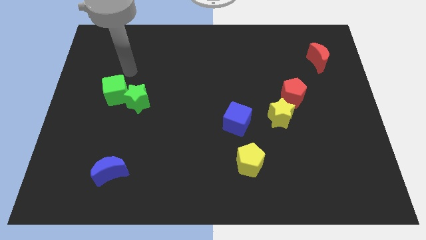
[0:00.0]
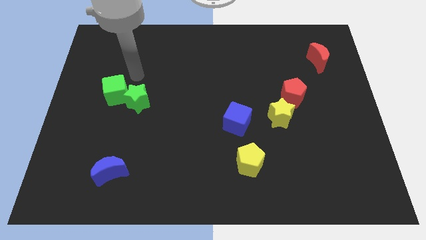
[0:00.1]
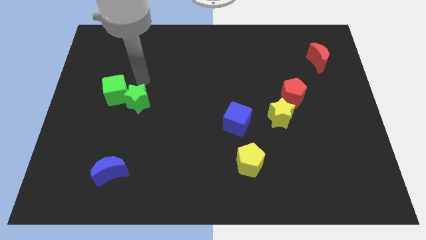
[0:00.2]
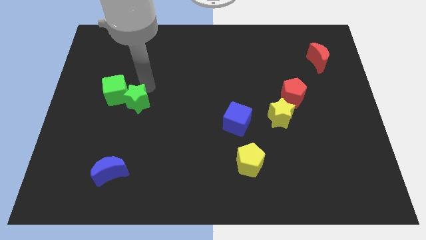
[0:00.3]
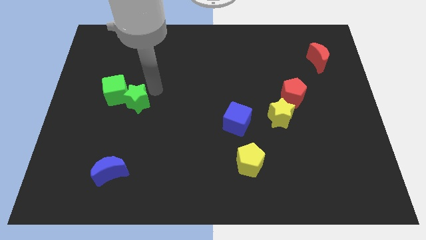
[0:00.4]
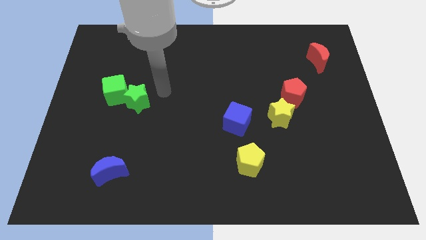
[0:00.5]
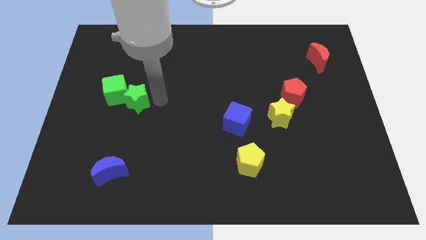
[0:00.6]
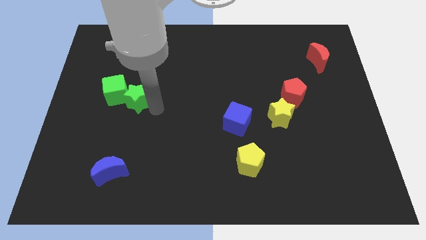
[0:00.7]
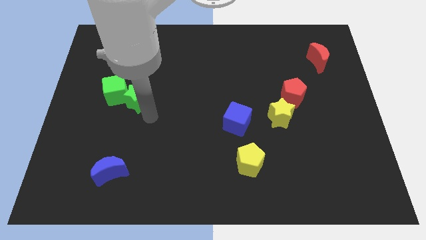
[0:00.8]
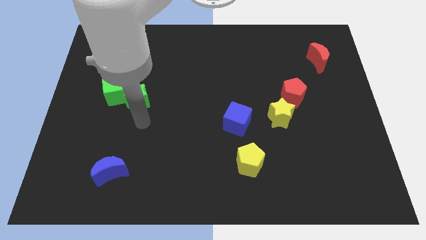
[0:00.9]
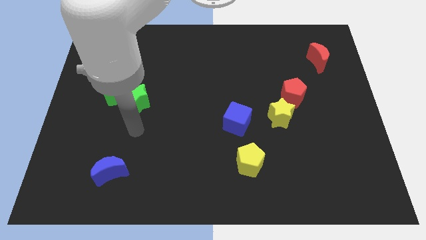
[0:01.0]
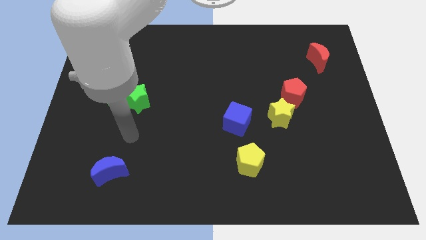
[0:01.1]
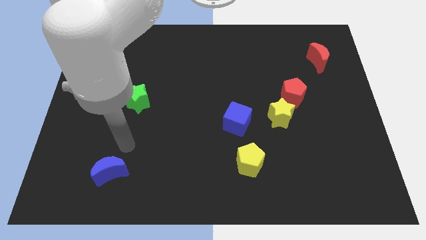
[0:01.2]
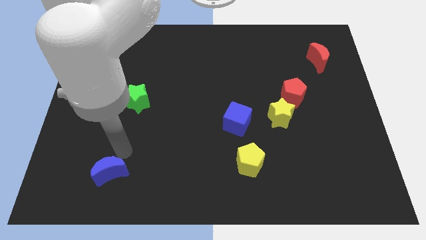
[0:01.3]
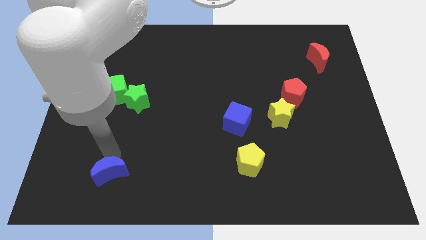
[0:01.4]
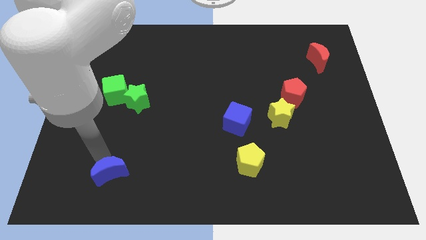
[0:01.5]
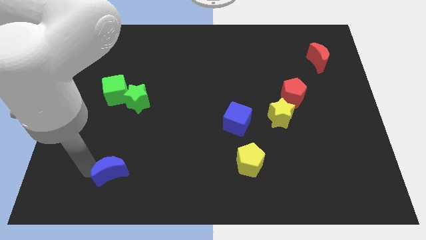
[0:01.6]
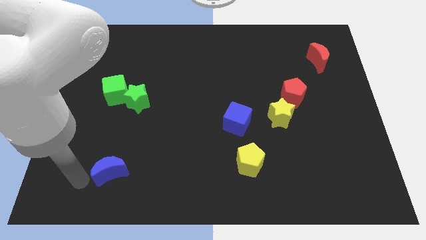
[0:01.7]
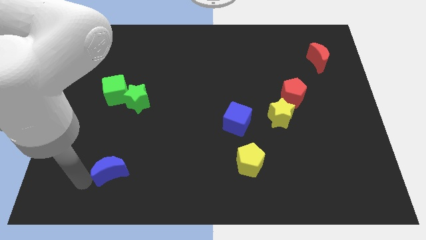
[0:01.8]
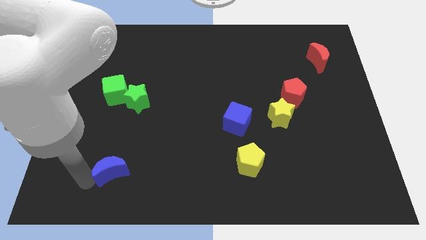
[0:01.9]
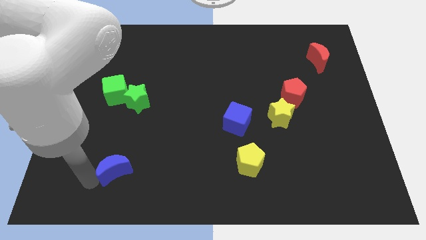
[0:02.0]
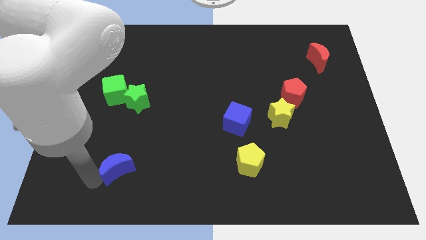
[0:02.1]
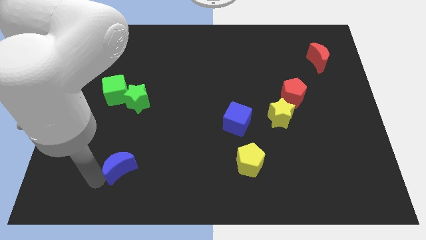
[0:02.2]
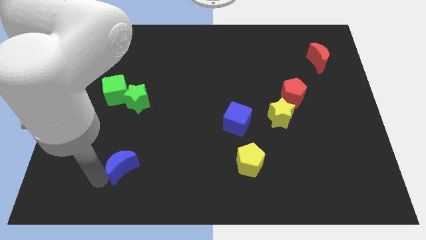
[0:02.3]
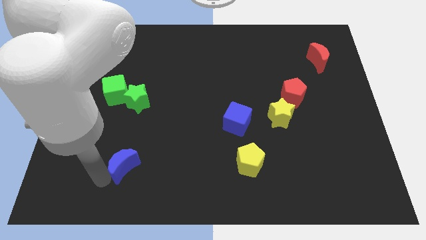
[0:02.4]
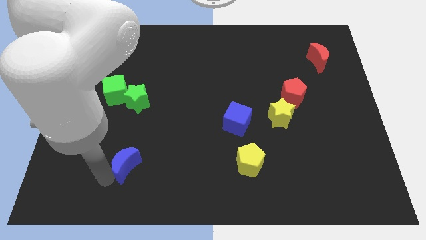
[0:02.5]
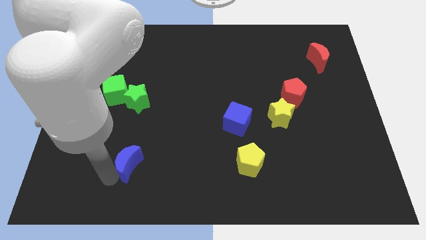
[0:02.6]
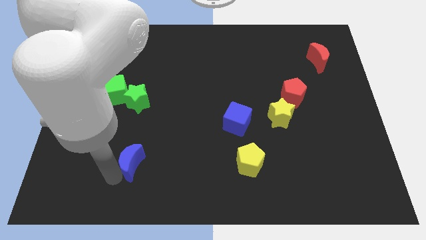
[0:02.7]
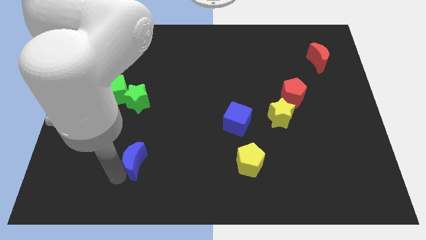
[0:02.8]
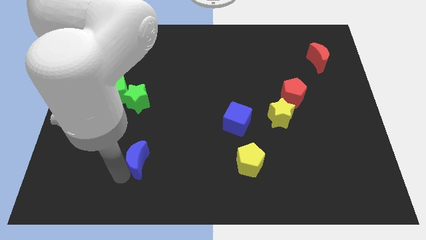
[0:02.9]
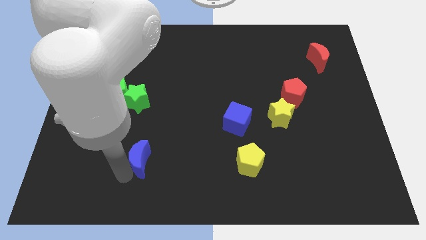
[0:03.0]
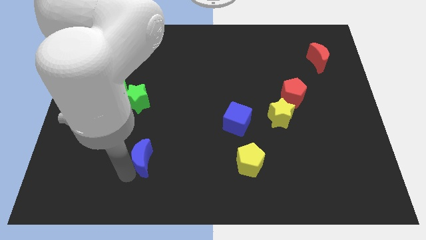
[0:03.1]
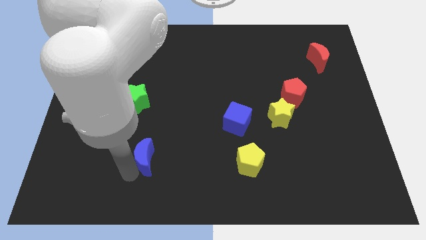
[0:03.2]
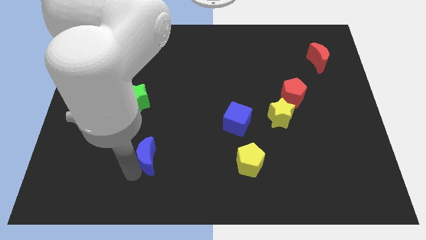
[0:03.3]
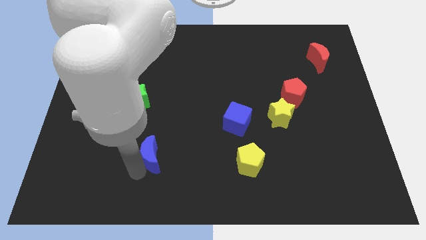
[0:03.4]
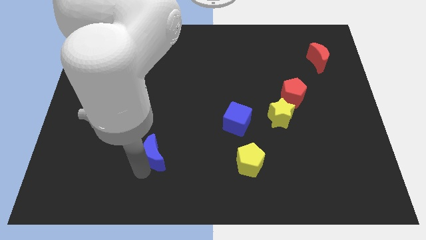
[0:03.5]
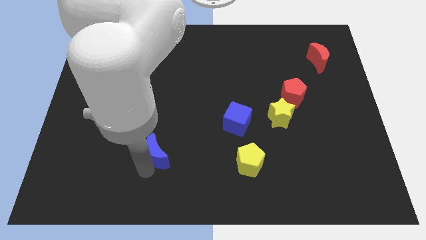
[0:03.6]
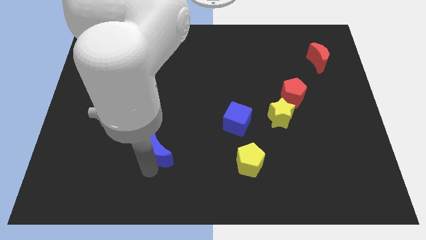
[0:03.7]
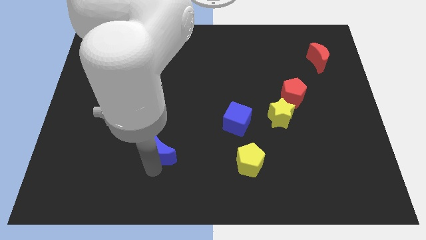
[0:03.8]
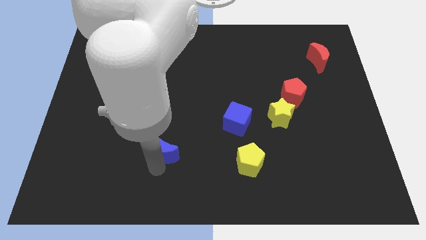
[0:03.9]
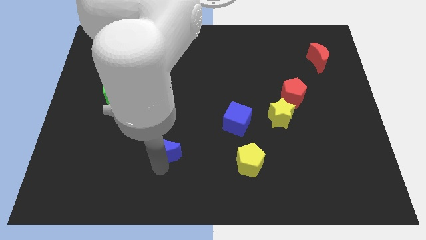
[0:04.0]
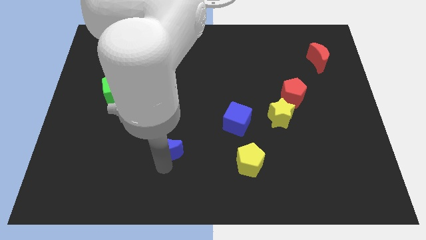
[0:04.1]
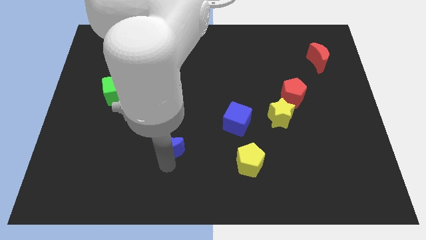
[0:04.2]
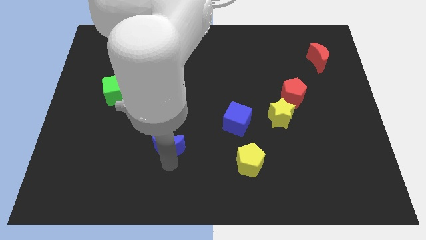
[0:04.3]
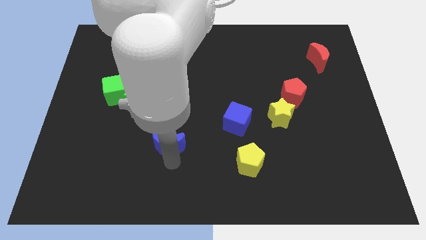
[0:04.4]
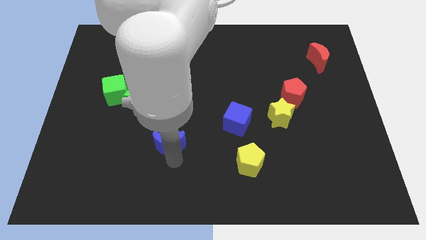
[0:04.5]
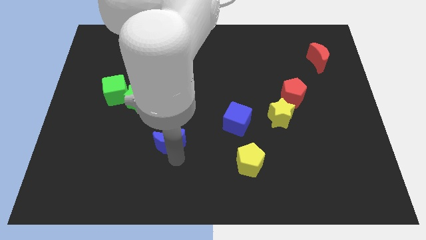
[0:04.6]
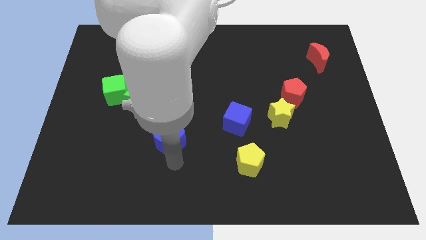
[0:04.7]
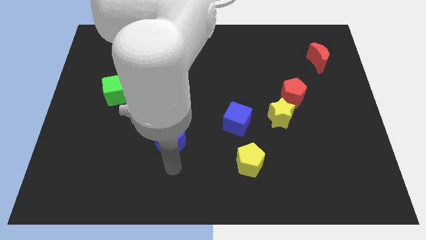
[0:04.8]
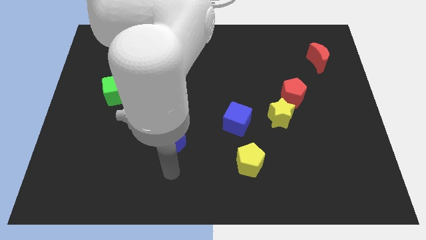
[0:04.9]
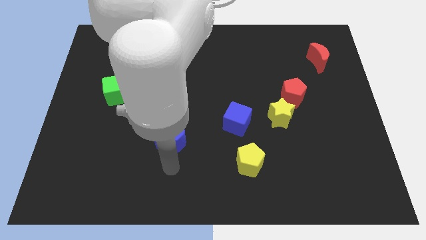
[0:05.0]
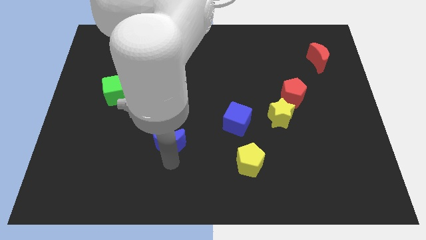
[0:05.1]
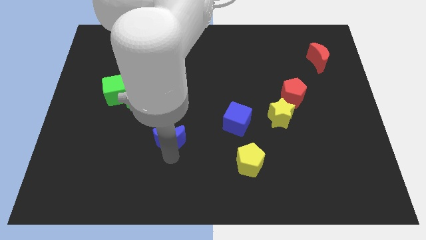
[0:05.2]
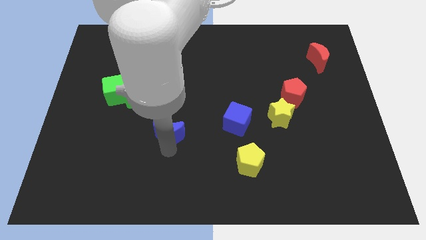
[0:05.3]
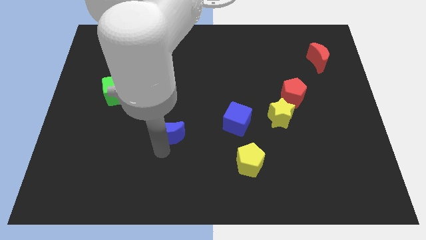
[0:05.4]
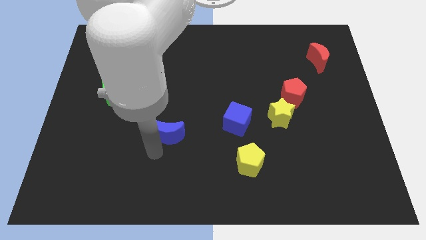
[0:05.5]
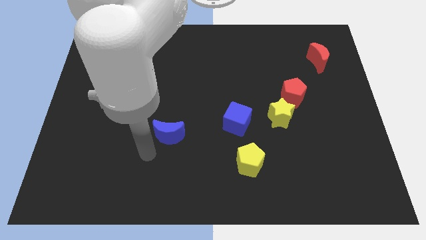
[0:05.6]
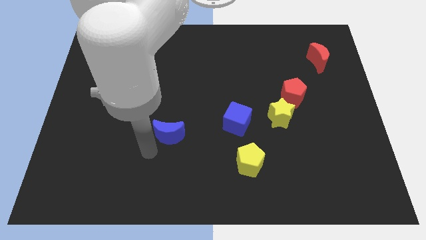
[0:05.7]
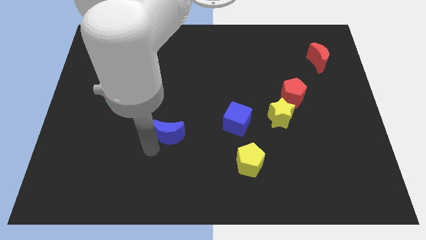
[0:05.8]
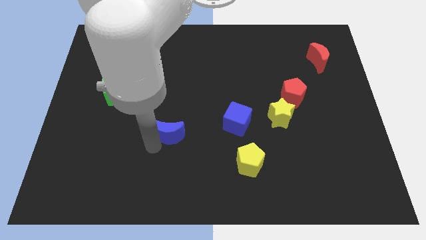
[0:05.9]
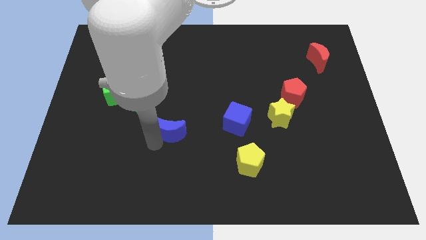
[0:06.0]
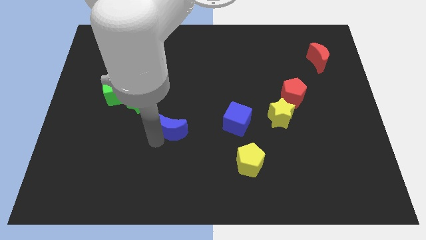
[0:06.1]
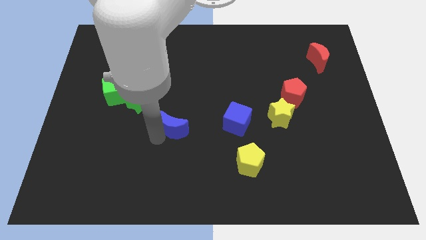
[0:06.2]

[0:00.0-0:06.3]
push the blue moon to the middle
